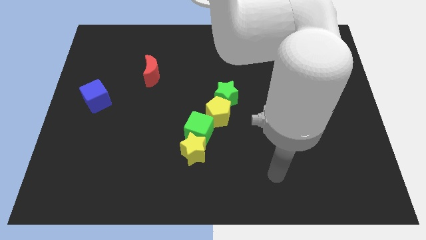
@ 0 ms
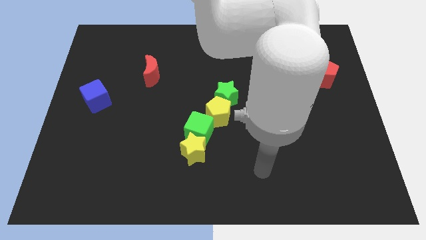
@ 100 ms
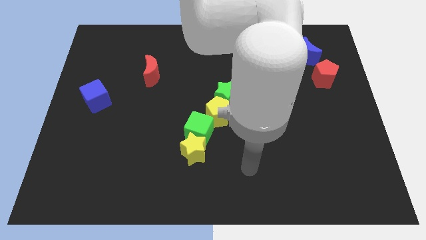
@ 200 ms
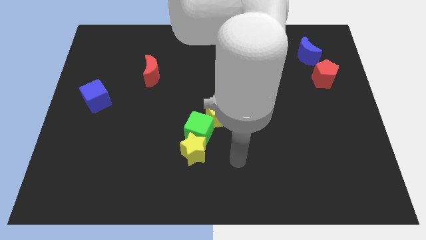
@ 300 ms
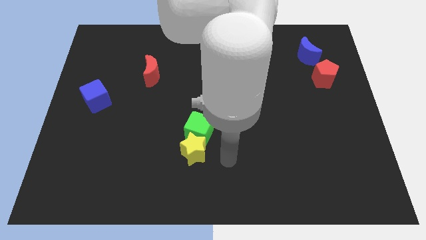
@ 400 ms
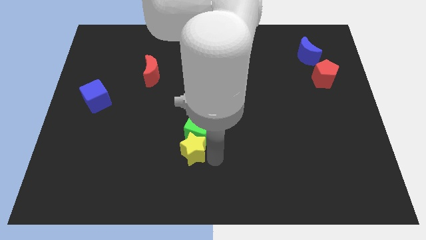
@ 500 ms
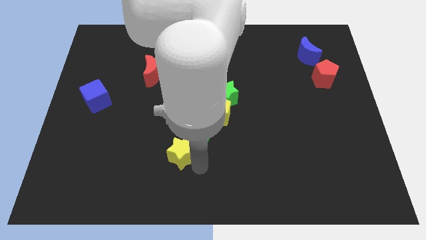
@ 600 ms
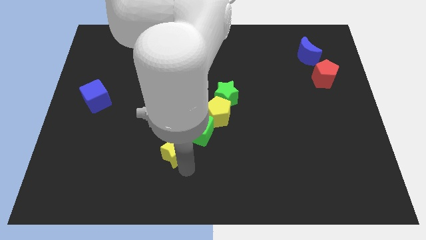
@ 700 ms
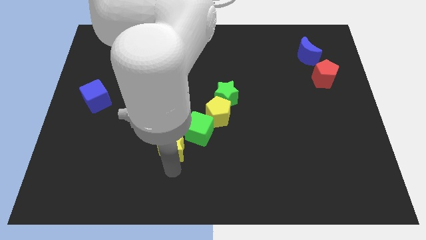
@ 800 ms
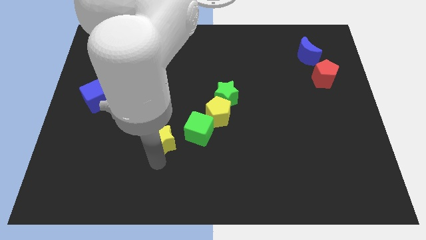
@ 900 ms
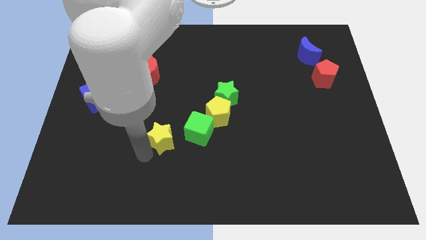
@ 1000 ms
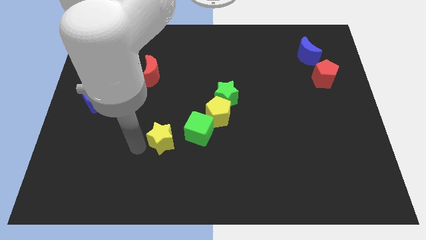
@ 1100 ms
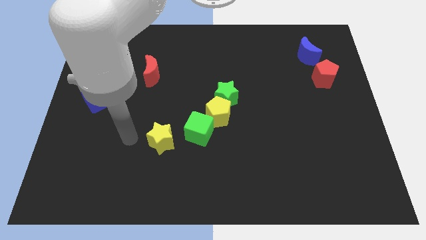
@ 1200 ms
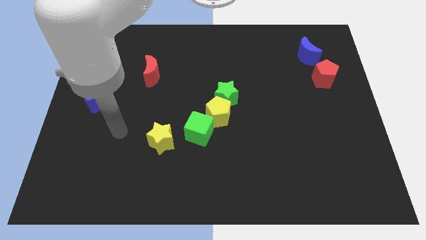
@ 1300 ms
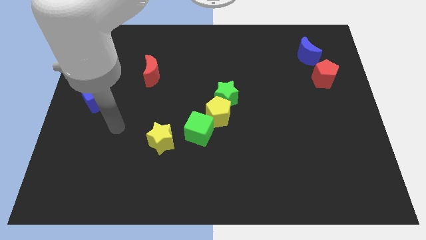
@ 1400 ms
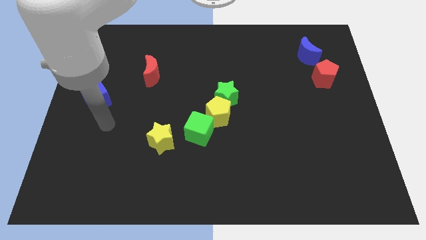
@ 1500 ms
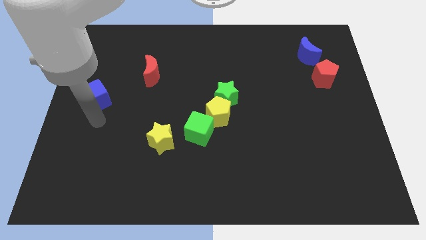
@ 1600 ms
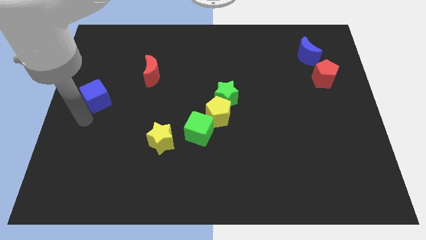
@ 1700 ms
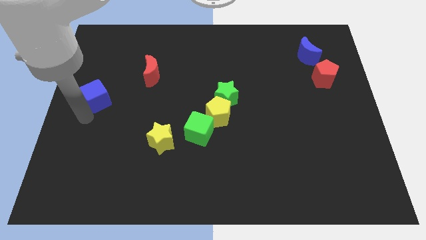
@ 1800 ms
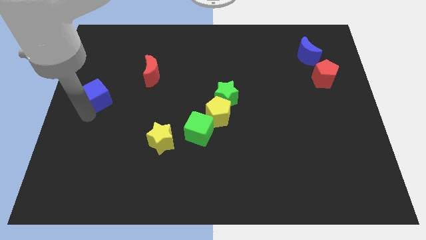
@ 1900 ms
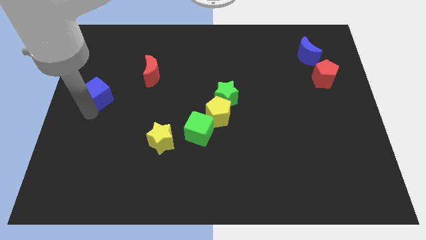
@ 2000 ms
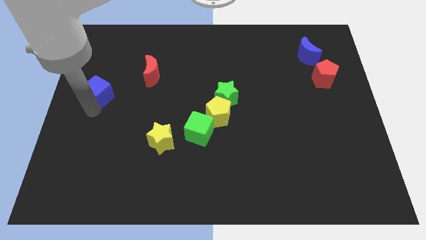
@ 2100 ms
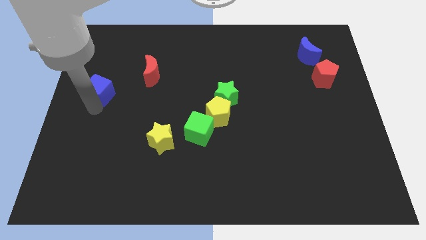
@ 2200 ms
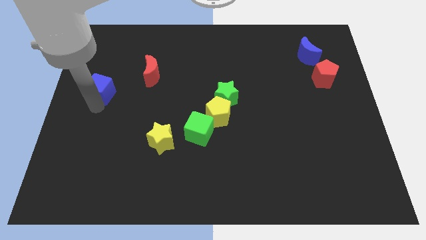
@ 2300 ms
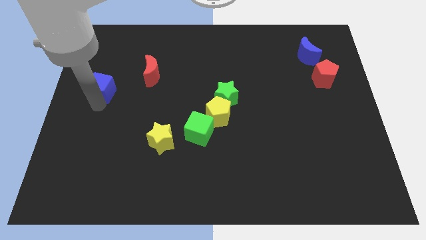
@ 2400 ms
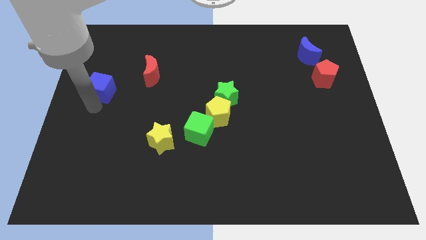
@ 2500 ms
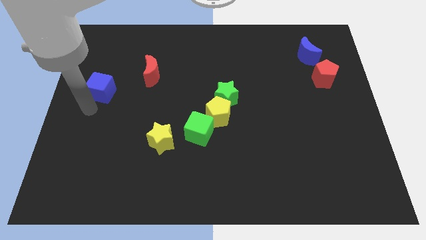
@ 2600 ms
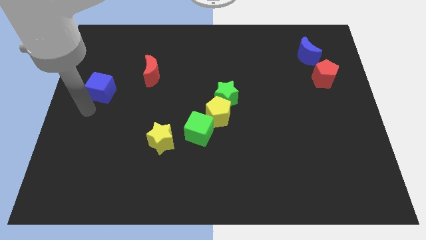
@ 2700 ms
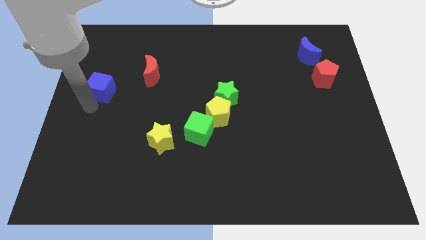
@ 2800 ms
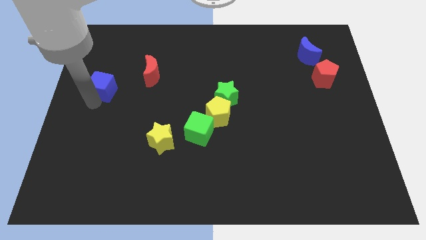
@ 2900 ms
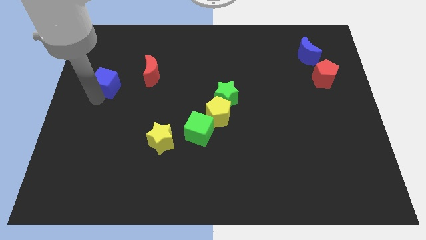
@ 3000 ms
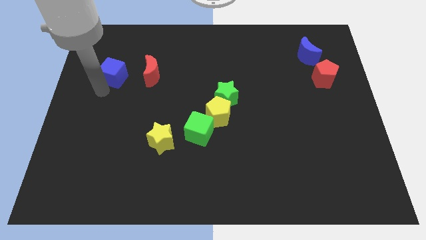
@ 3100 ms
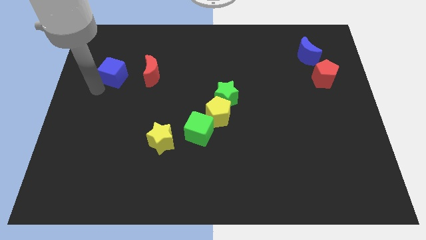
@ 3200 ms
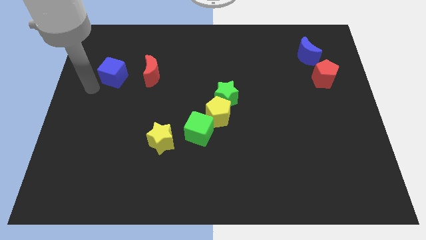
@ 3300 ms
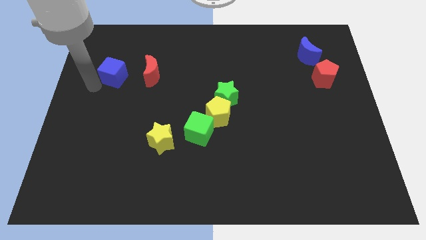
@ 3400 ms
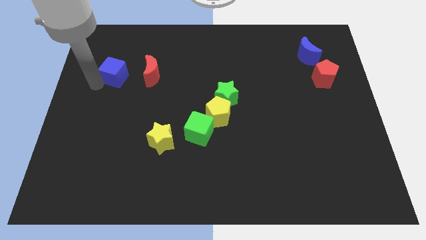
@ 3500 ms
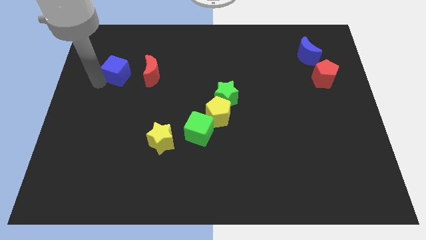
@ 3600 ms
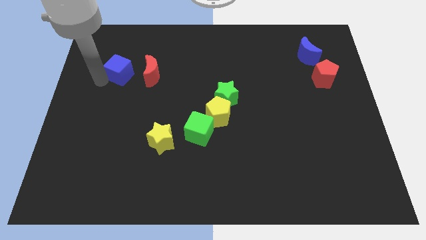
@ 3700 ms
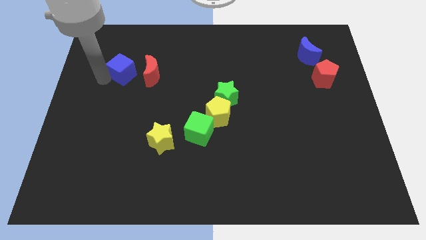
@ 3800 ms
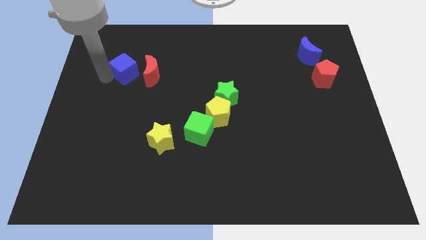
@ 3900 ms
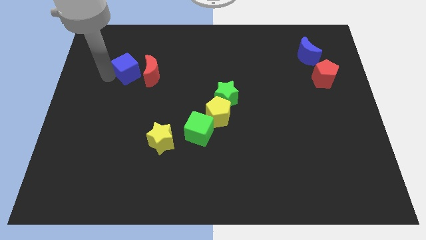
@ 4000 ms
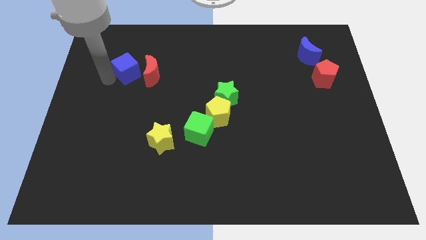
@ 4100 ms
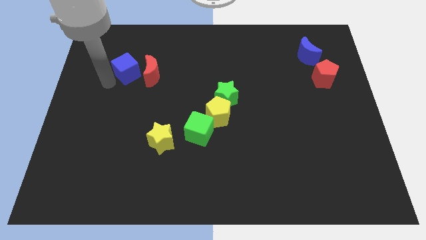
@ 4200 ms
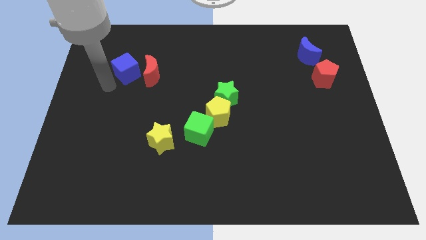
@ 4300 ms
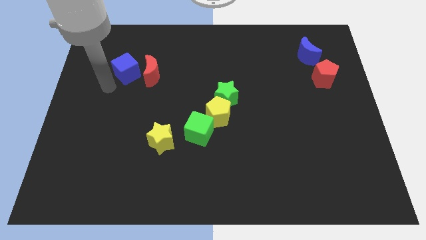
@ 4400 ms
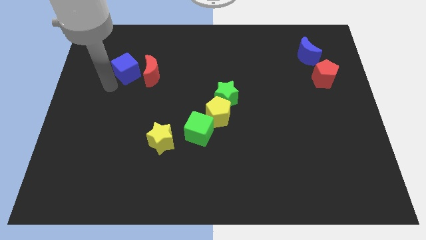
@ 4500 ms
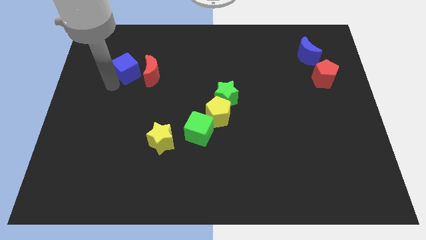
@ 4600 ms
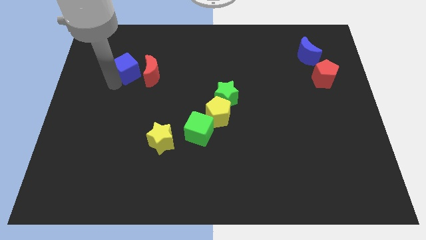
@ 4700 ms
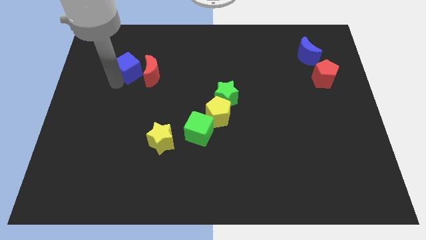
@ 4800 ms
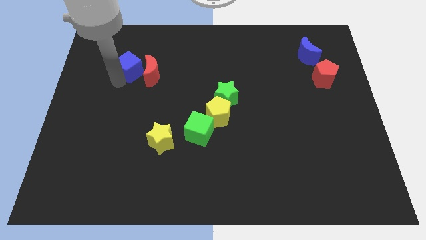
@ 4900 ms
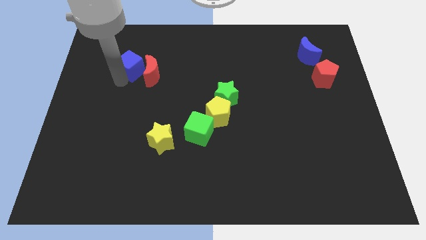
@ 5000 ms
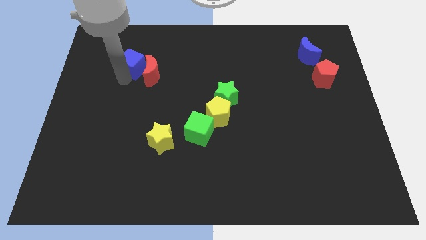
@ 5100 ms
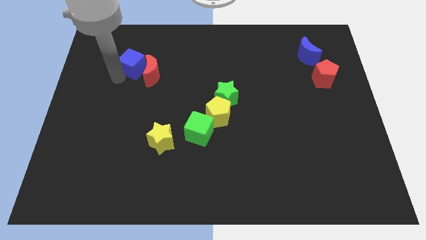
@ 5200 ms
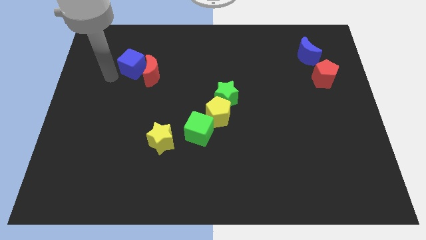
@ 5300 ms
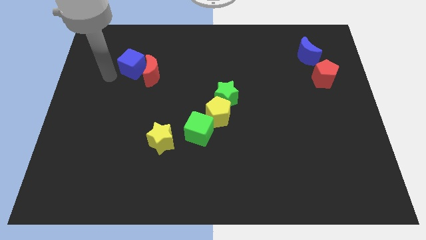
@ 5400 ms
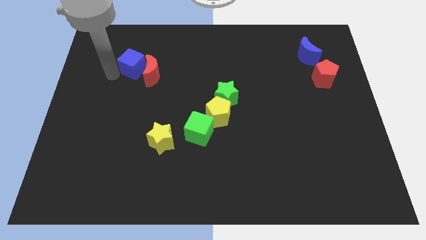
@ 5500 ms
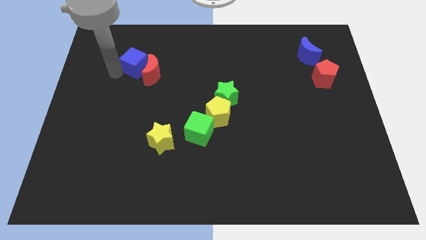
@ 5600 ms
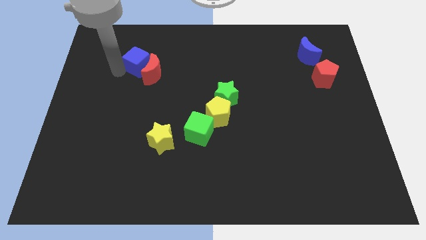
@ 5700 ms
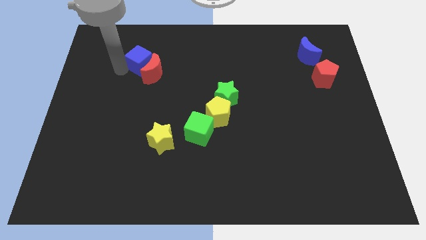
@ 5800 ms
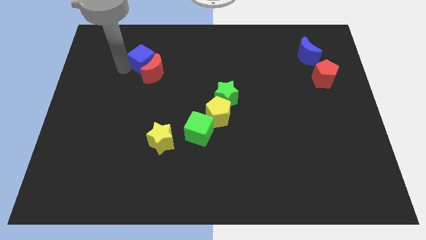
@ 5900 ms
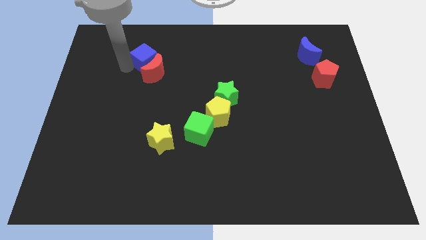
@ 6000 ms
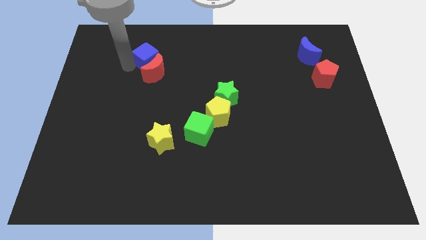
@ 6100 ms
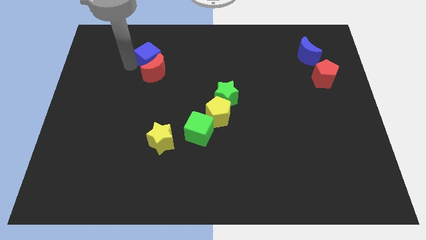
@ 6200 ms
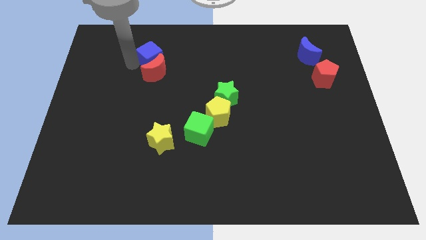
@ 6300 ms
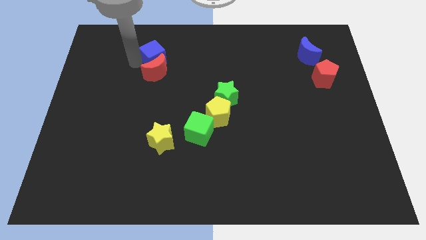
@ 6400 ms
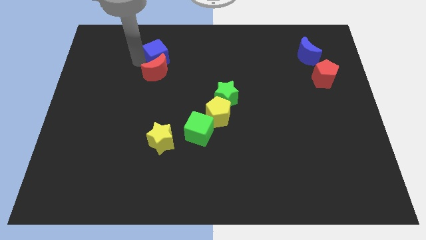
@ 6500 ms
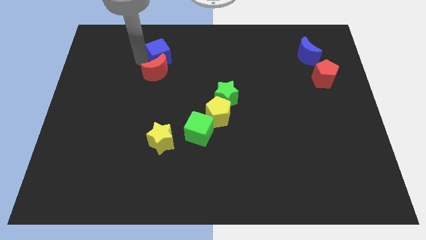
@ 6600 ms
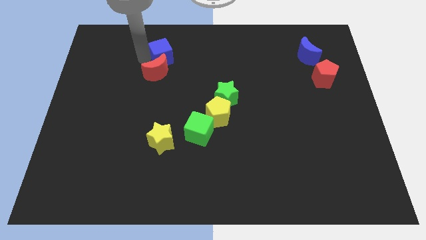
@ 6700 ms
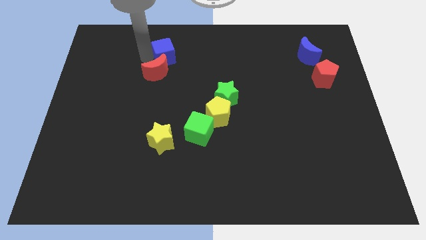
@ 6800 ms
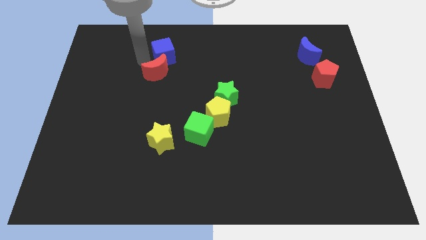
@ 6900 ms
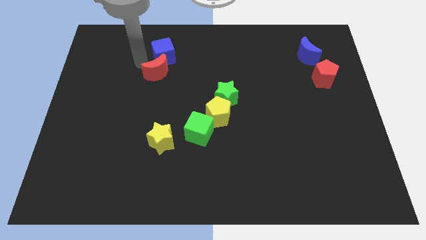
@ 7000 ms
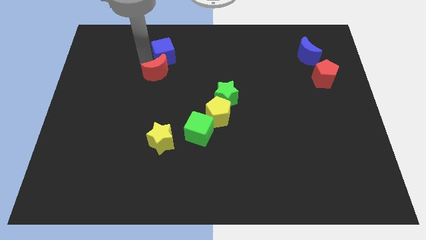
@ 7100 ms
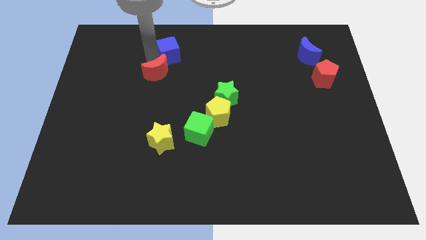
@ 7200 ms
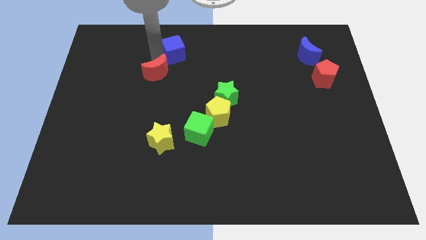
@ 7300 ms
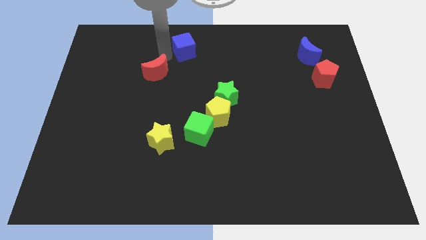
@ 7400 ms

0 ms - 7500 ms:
put the blue cube to the towards your base
